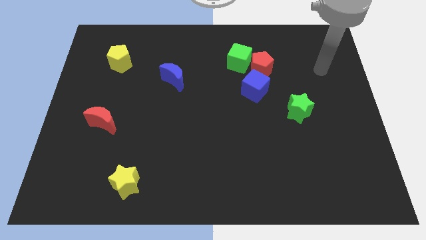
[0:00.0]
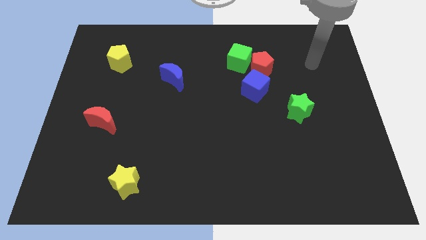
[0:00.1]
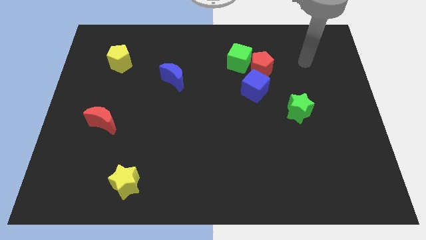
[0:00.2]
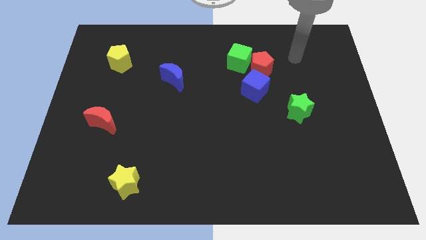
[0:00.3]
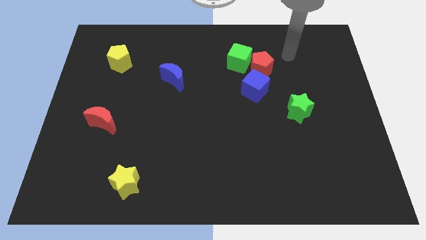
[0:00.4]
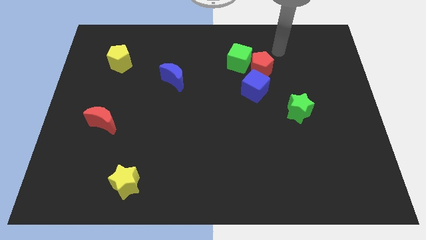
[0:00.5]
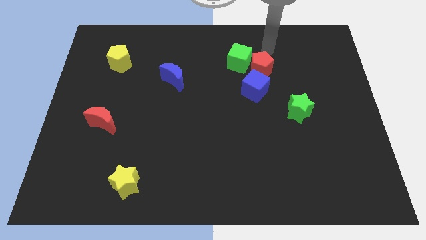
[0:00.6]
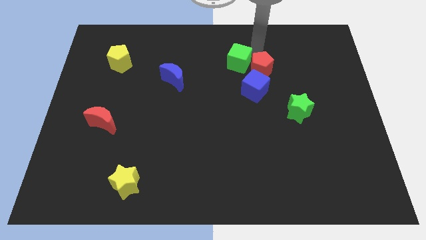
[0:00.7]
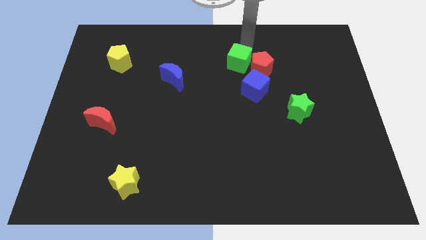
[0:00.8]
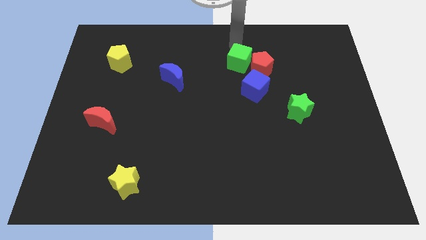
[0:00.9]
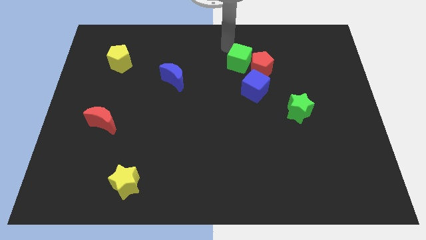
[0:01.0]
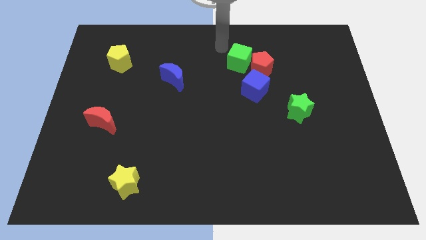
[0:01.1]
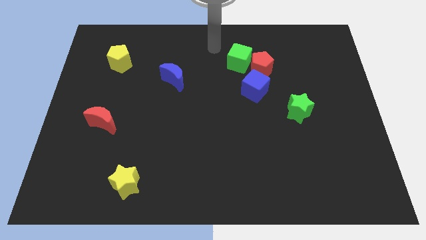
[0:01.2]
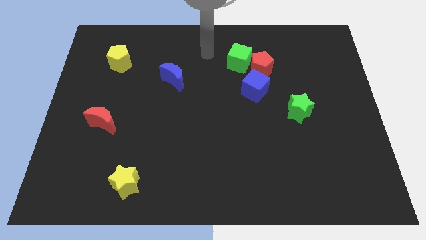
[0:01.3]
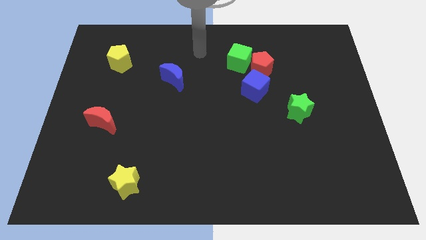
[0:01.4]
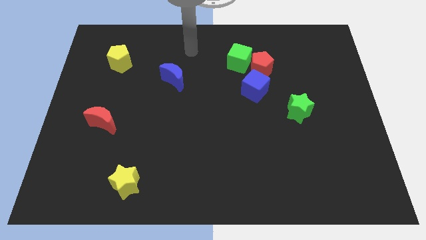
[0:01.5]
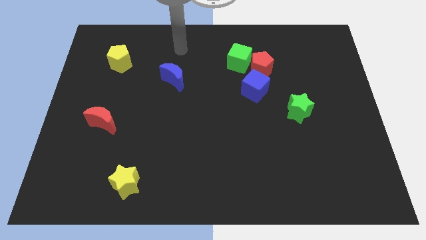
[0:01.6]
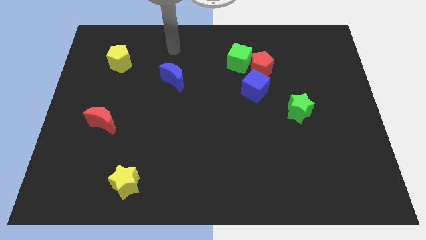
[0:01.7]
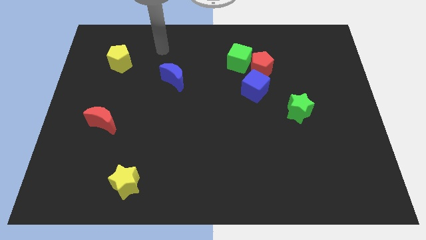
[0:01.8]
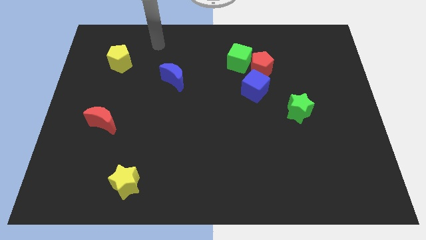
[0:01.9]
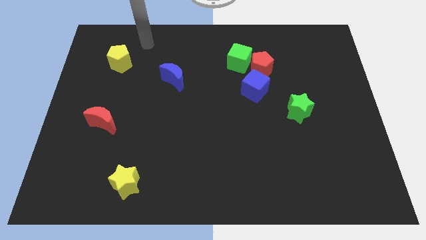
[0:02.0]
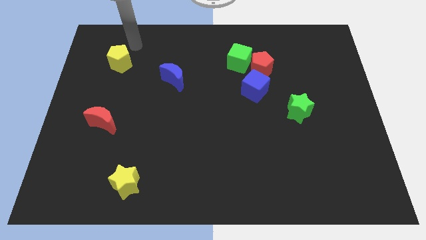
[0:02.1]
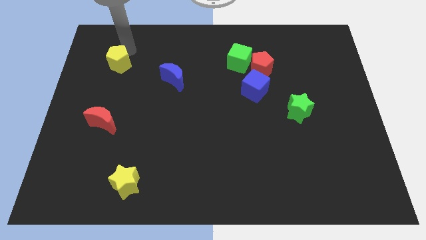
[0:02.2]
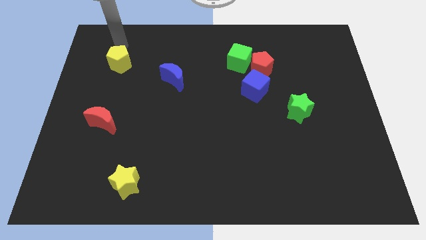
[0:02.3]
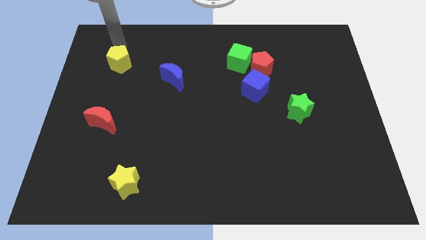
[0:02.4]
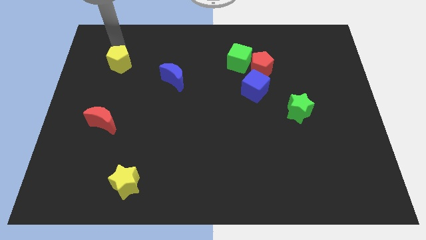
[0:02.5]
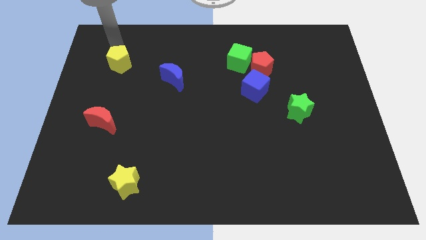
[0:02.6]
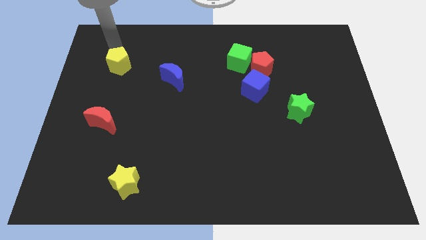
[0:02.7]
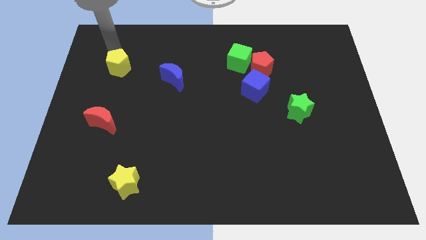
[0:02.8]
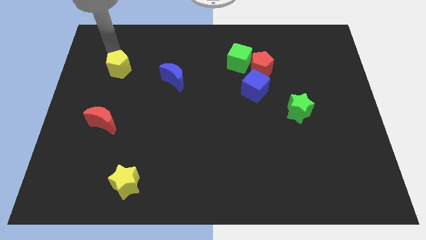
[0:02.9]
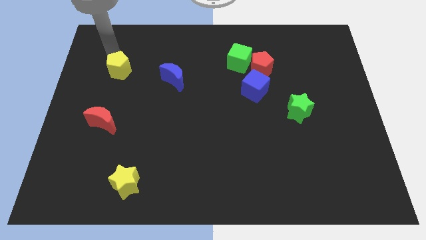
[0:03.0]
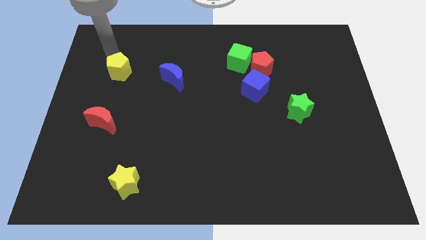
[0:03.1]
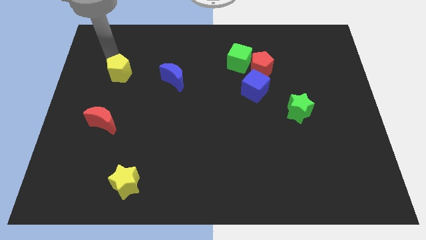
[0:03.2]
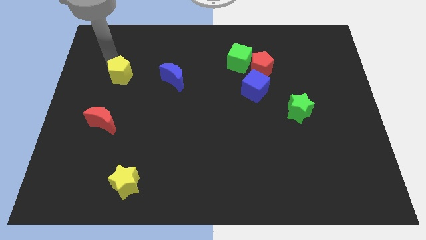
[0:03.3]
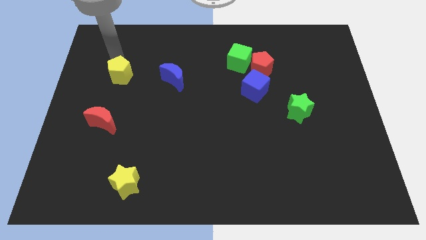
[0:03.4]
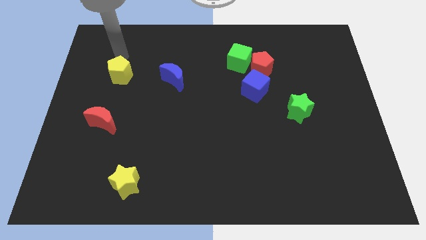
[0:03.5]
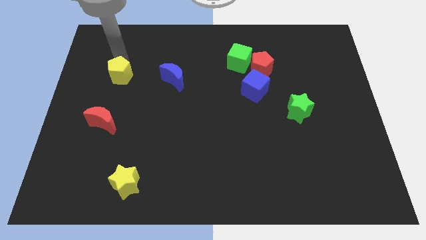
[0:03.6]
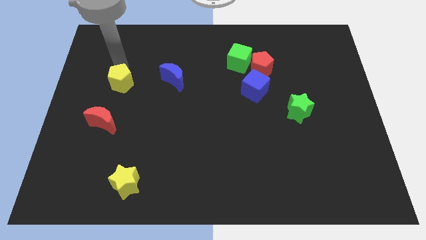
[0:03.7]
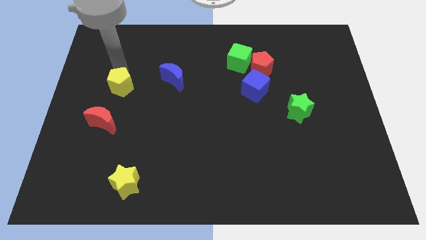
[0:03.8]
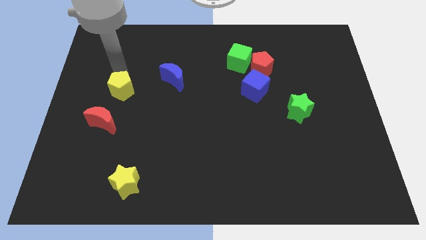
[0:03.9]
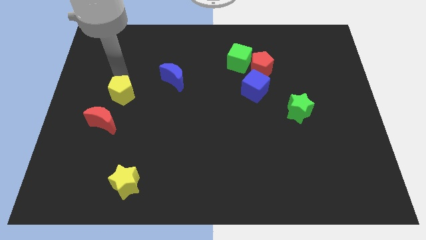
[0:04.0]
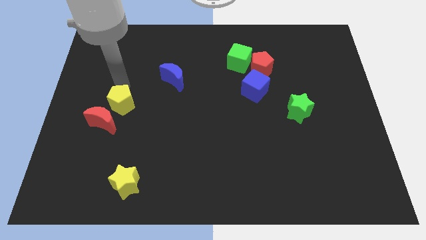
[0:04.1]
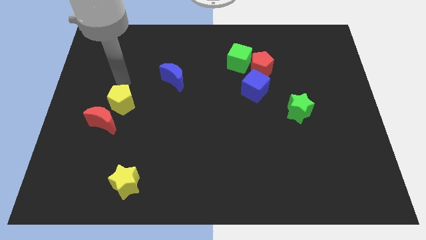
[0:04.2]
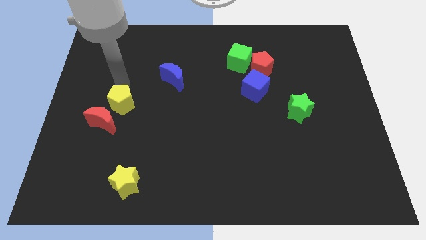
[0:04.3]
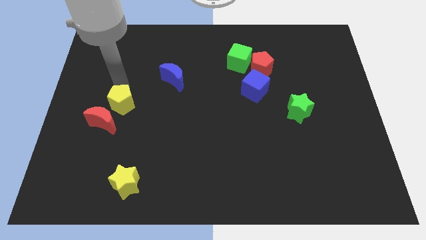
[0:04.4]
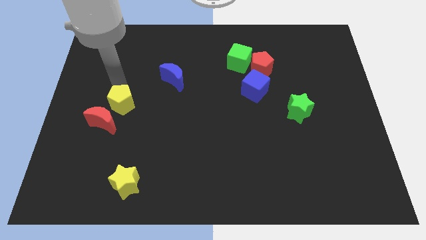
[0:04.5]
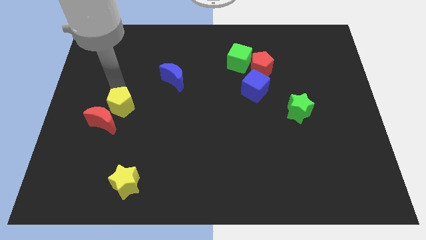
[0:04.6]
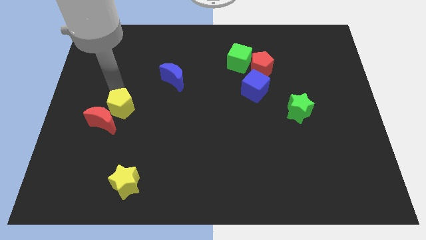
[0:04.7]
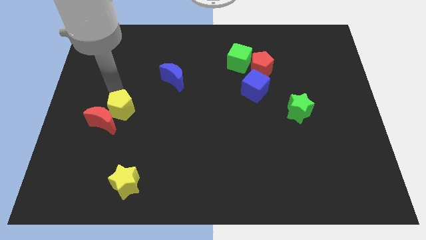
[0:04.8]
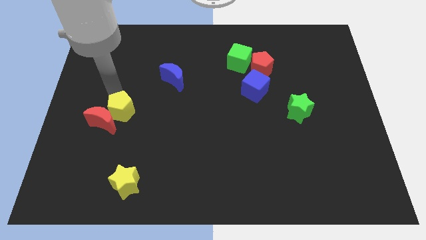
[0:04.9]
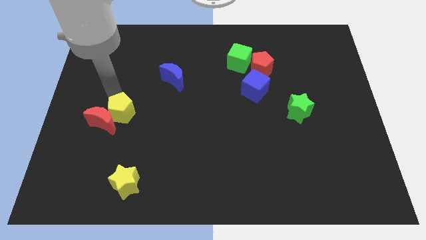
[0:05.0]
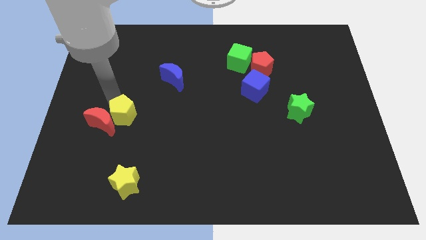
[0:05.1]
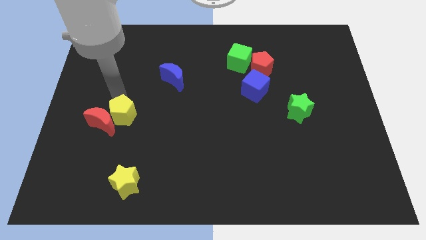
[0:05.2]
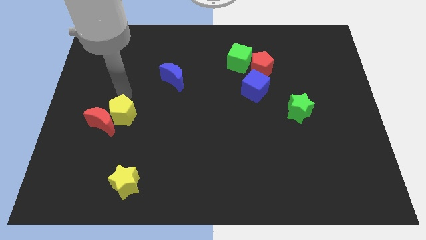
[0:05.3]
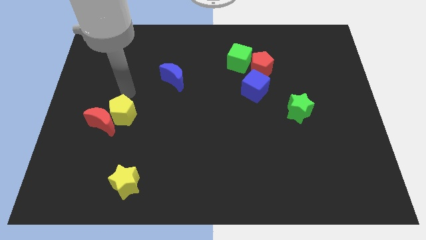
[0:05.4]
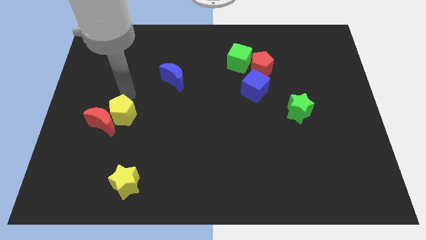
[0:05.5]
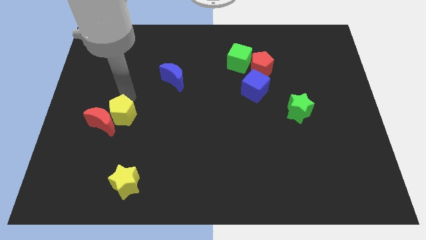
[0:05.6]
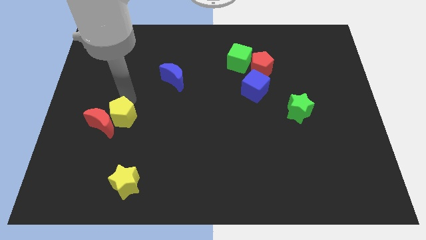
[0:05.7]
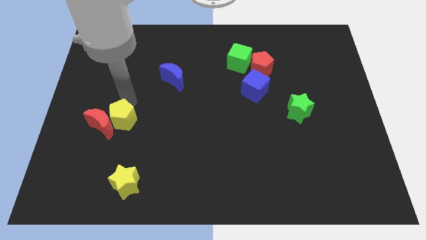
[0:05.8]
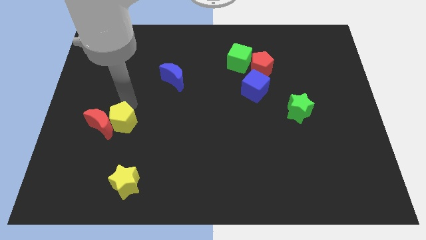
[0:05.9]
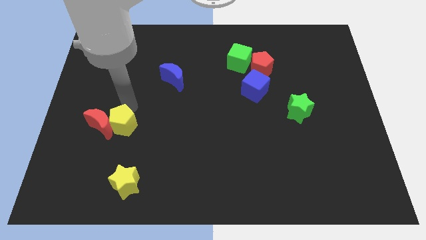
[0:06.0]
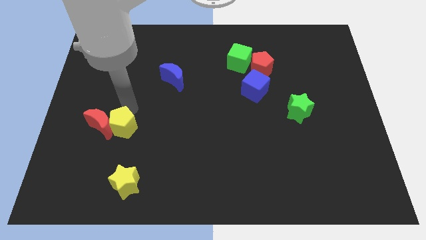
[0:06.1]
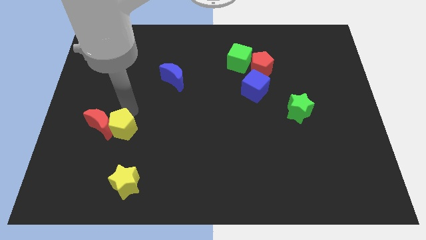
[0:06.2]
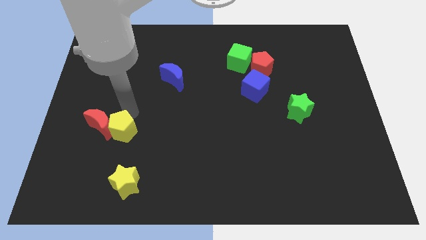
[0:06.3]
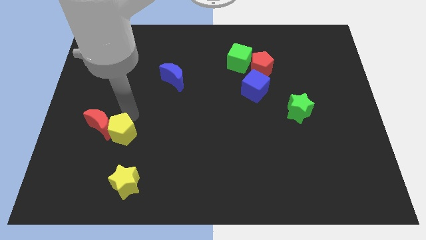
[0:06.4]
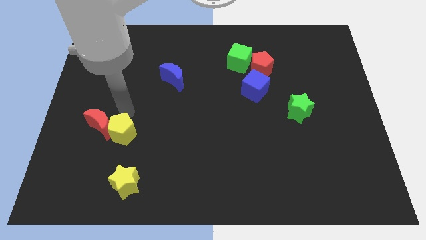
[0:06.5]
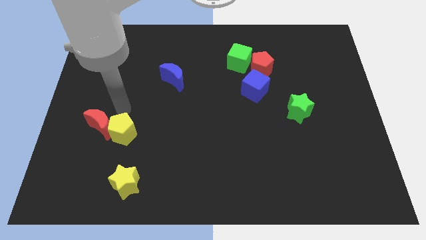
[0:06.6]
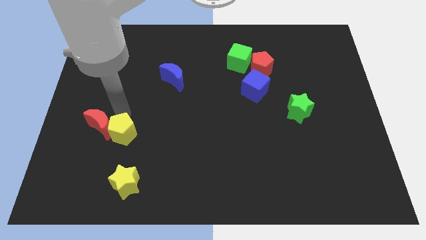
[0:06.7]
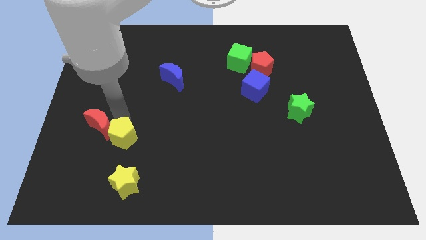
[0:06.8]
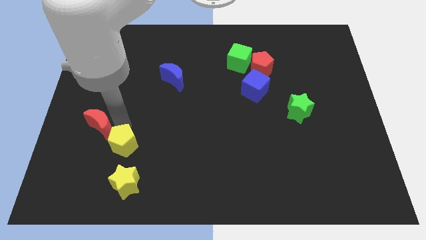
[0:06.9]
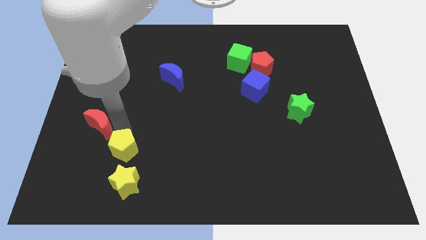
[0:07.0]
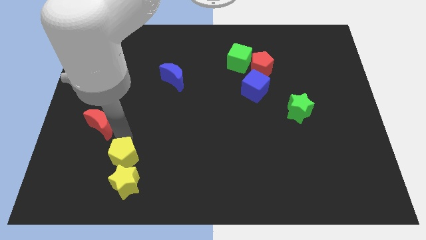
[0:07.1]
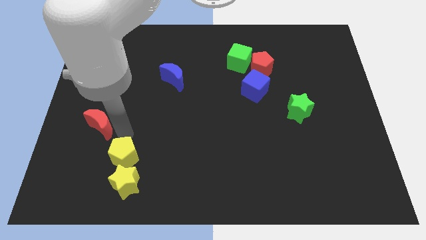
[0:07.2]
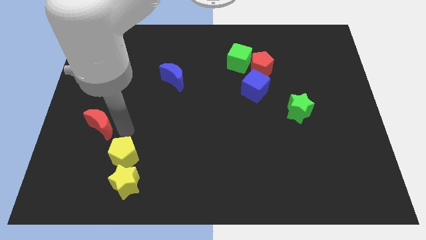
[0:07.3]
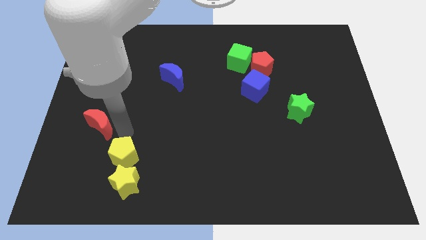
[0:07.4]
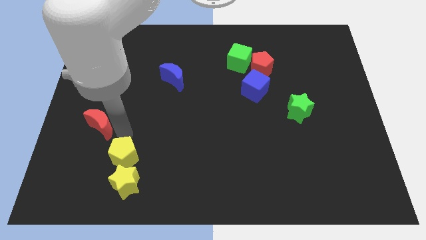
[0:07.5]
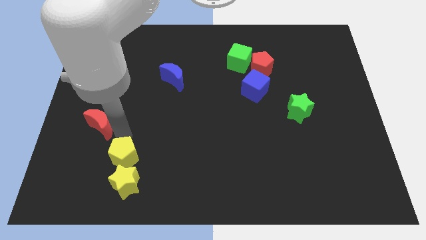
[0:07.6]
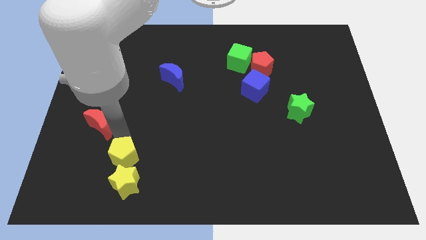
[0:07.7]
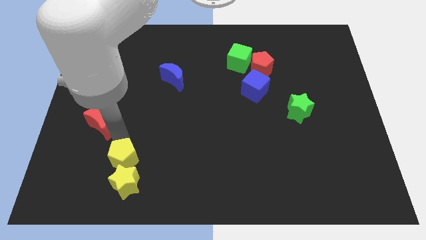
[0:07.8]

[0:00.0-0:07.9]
slide the yellow pentagon close to the yellow star
